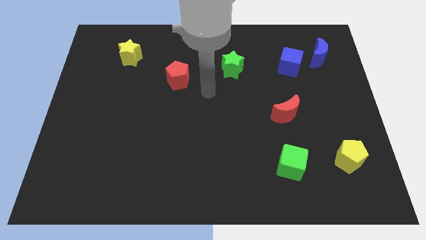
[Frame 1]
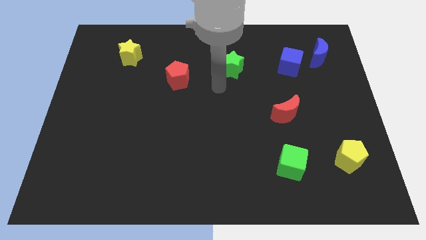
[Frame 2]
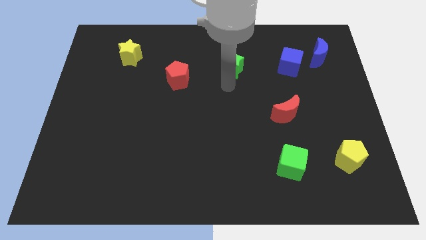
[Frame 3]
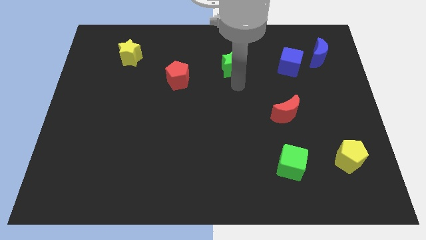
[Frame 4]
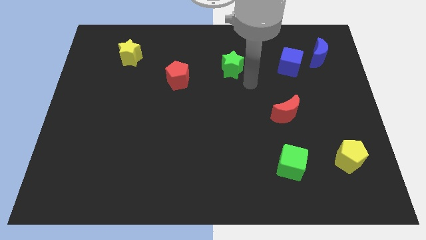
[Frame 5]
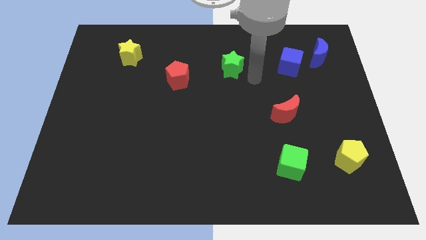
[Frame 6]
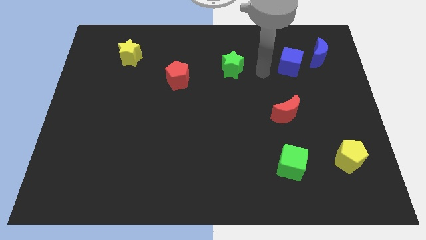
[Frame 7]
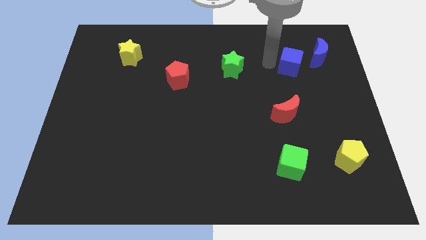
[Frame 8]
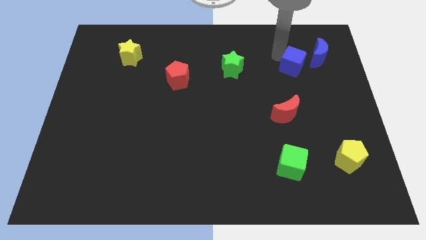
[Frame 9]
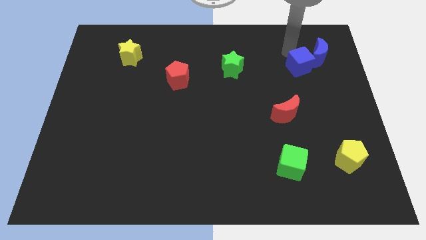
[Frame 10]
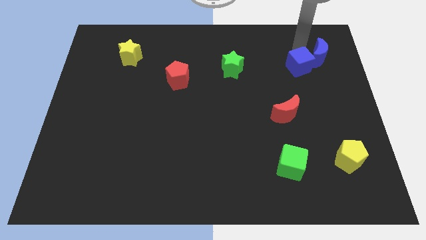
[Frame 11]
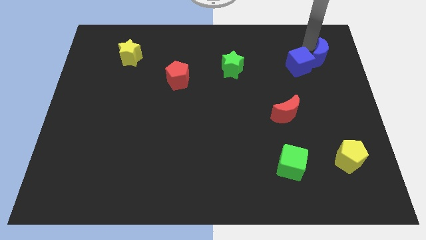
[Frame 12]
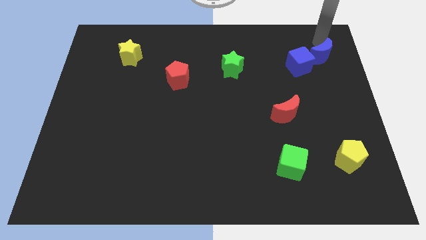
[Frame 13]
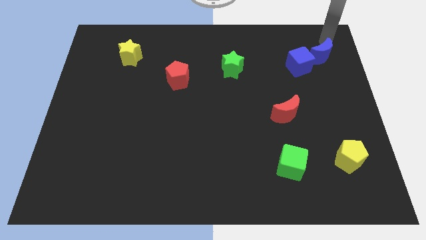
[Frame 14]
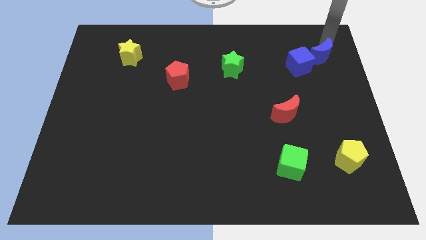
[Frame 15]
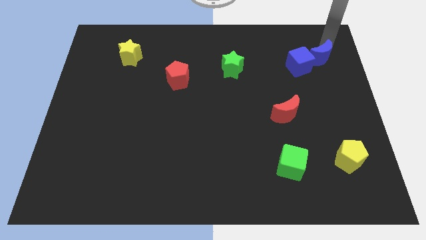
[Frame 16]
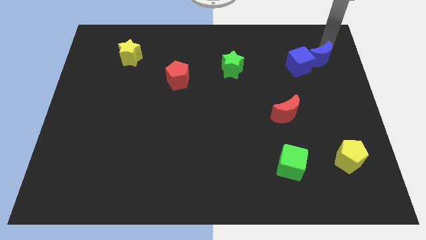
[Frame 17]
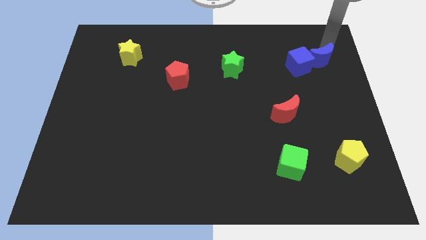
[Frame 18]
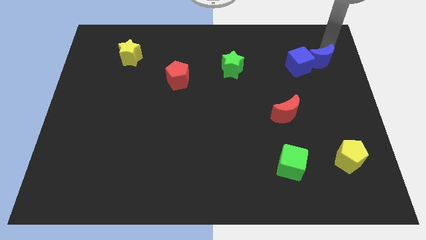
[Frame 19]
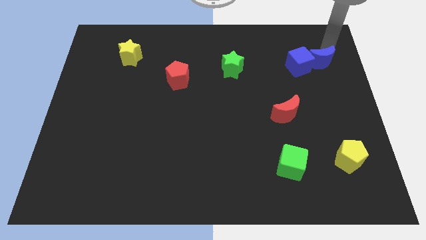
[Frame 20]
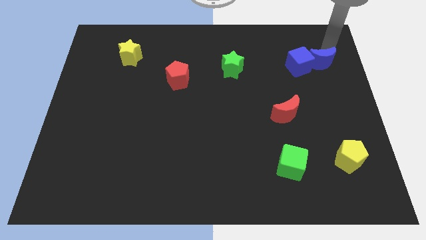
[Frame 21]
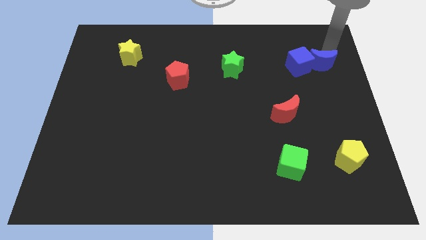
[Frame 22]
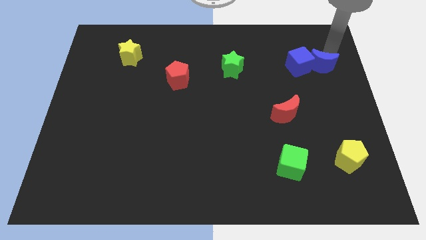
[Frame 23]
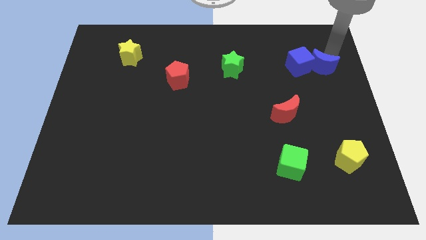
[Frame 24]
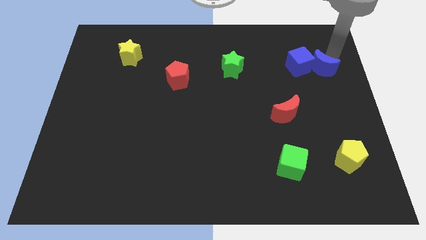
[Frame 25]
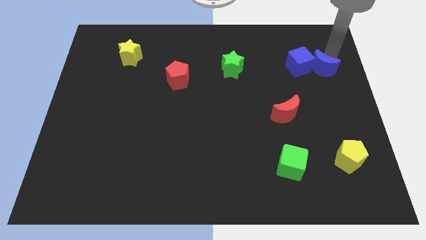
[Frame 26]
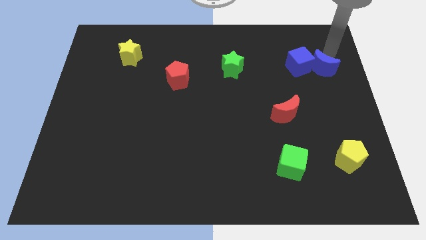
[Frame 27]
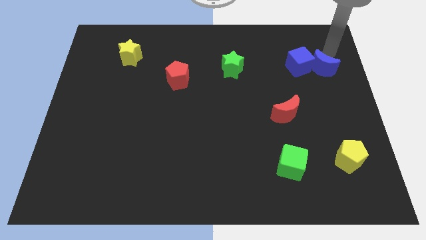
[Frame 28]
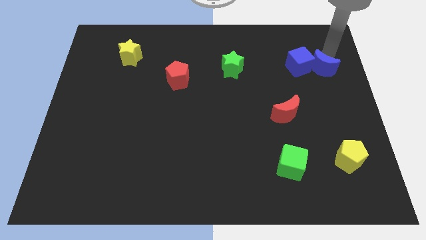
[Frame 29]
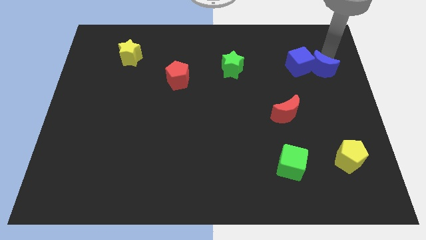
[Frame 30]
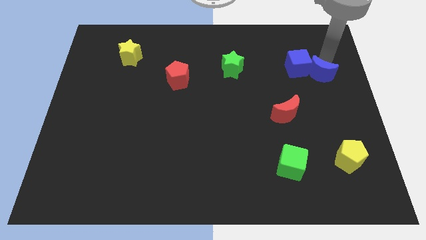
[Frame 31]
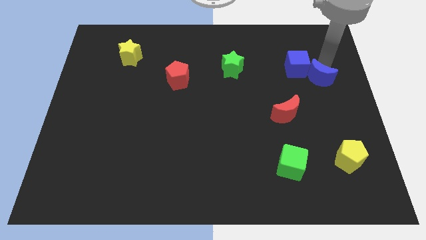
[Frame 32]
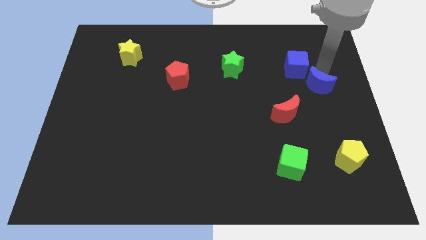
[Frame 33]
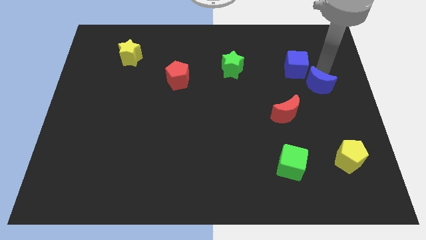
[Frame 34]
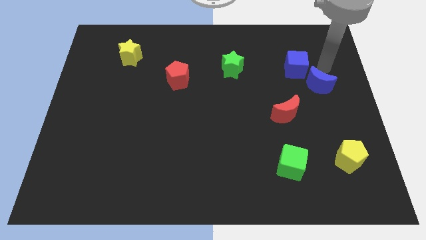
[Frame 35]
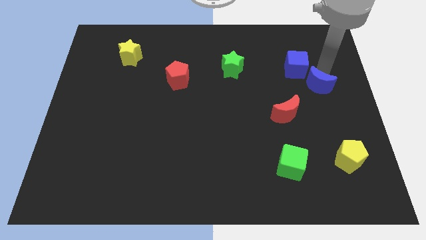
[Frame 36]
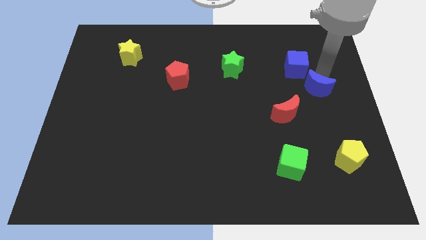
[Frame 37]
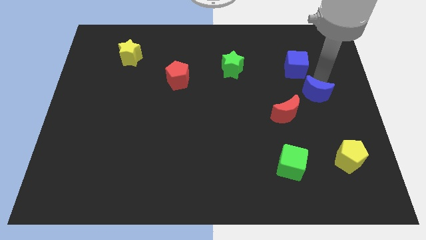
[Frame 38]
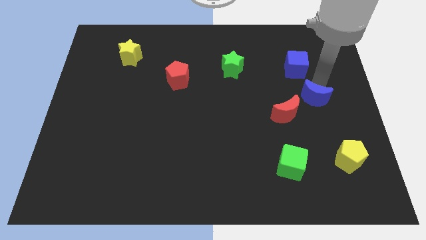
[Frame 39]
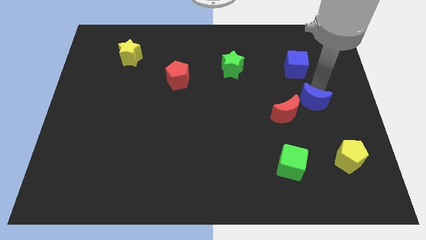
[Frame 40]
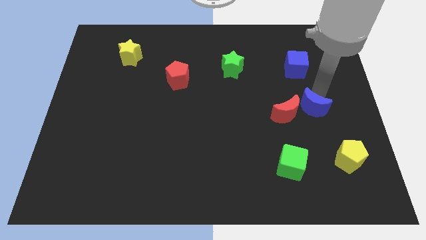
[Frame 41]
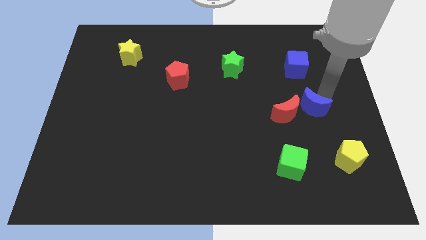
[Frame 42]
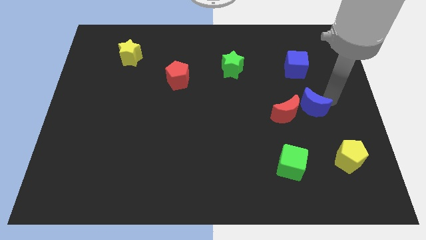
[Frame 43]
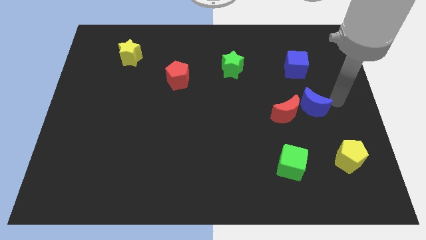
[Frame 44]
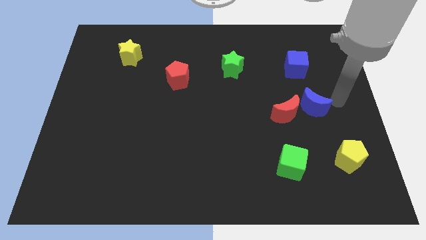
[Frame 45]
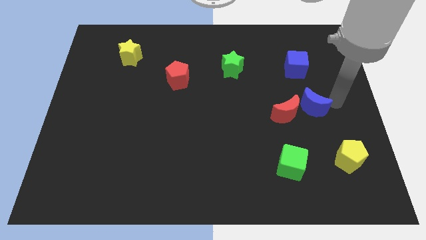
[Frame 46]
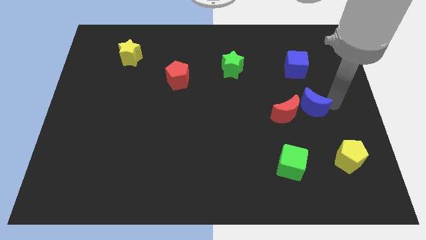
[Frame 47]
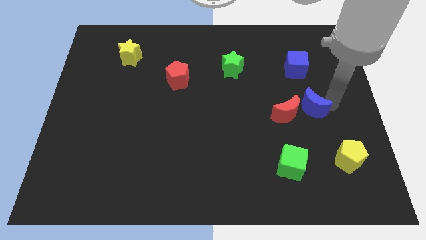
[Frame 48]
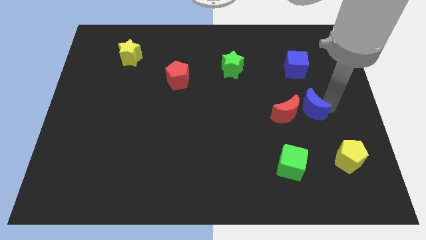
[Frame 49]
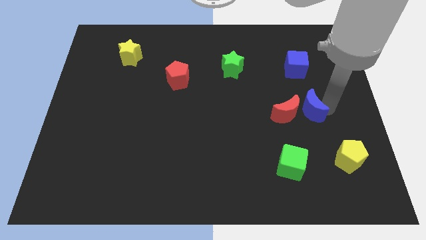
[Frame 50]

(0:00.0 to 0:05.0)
move the blue moon close to the red moon

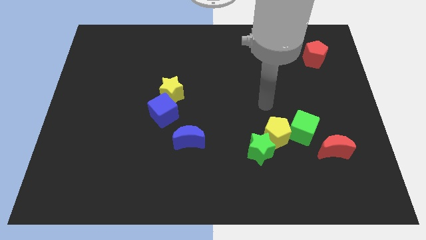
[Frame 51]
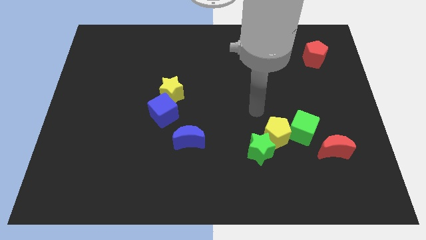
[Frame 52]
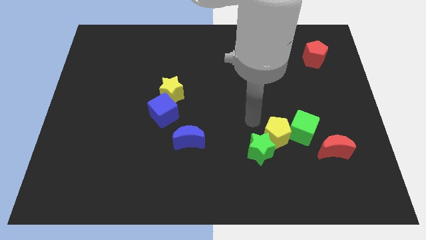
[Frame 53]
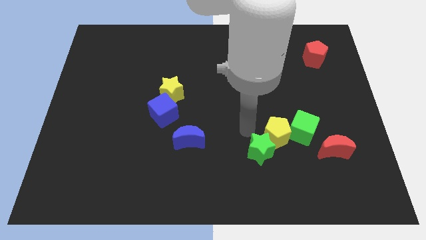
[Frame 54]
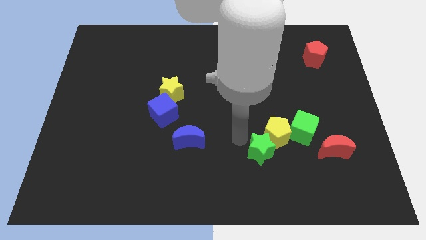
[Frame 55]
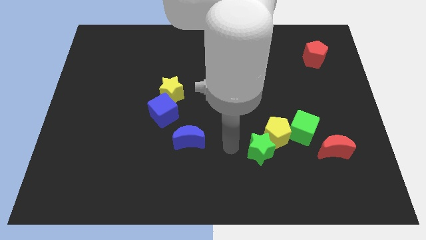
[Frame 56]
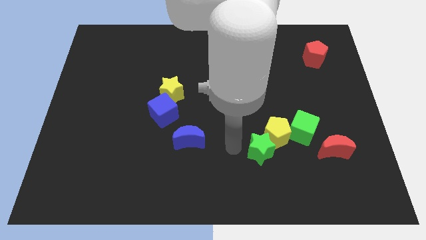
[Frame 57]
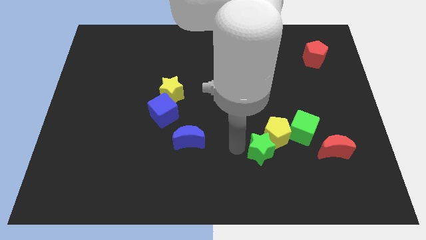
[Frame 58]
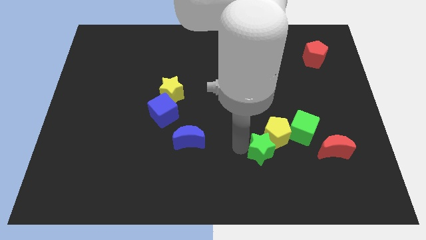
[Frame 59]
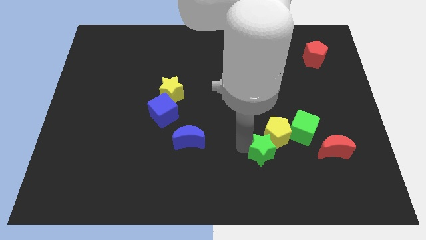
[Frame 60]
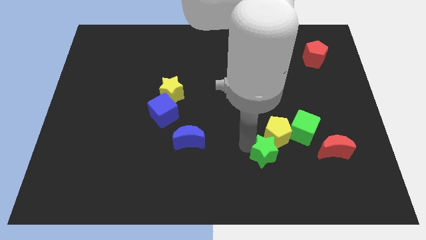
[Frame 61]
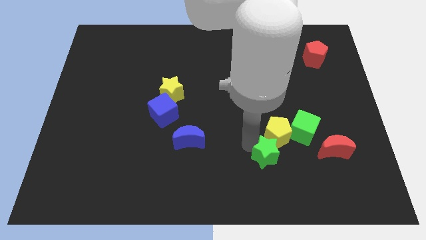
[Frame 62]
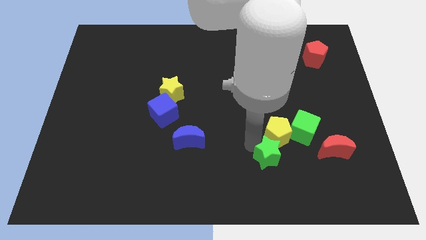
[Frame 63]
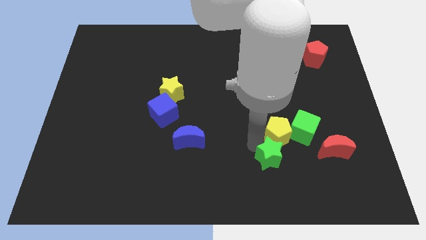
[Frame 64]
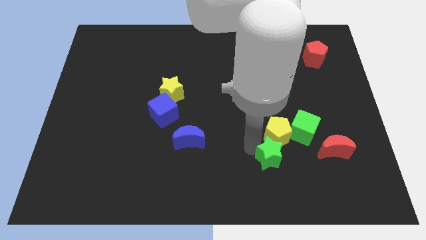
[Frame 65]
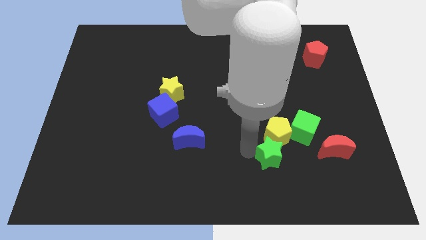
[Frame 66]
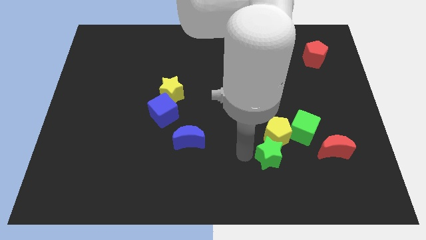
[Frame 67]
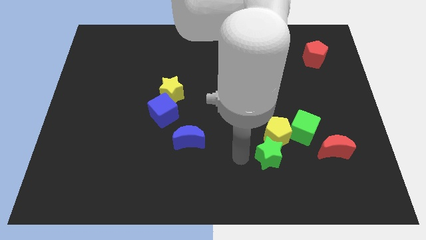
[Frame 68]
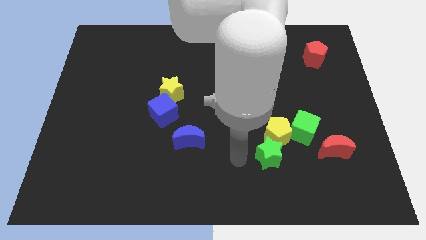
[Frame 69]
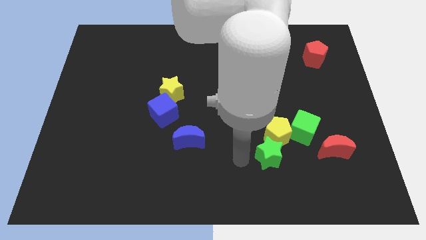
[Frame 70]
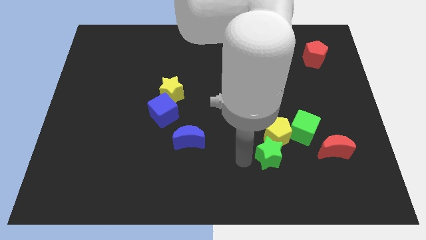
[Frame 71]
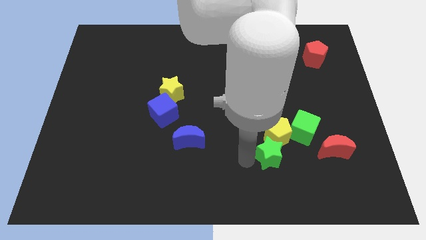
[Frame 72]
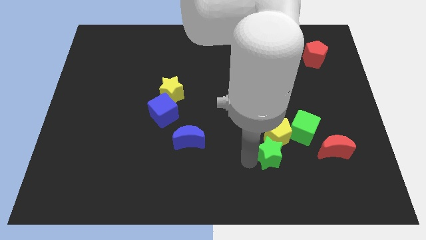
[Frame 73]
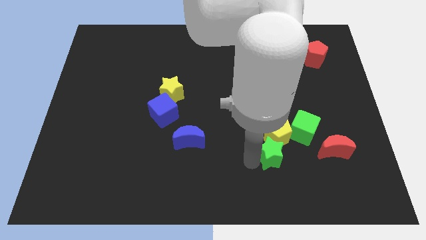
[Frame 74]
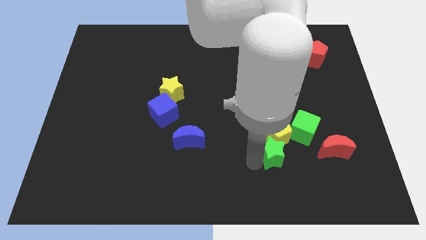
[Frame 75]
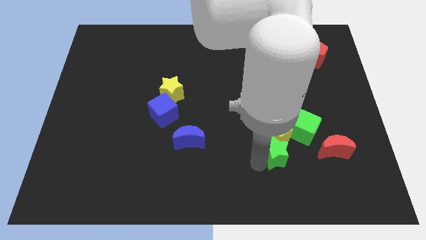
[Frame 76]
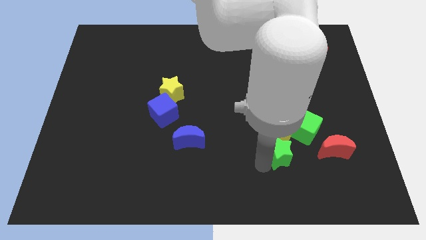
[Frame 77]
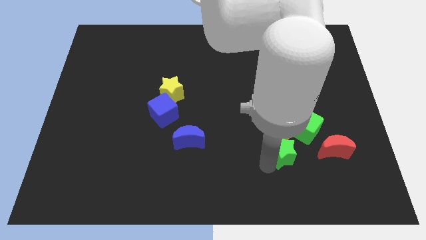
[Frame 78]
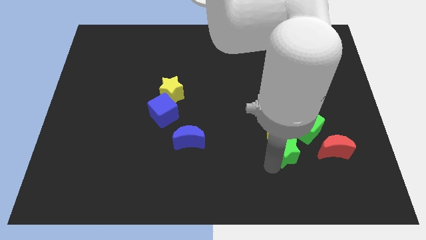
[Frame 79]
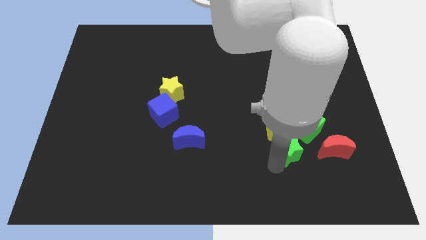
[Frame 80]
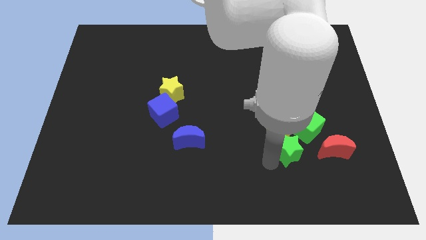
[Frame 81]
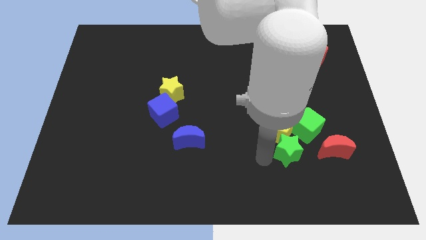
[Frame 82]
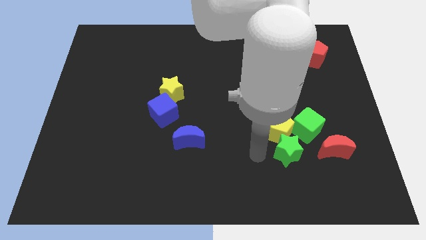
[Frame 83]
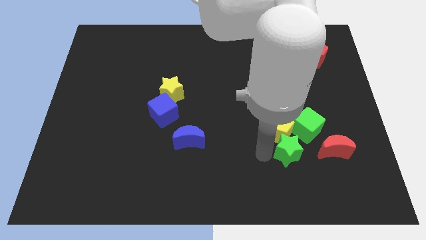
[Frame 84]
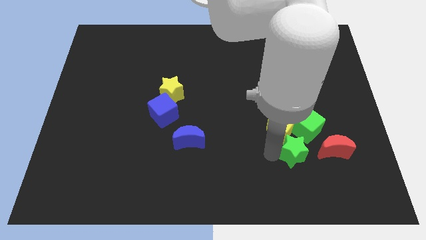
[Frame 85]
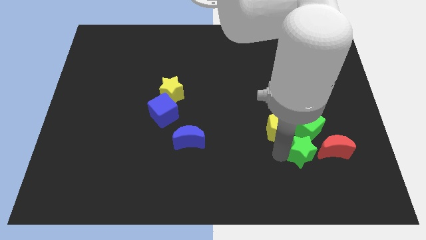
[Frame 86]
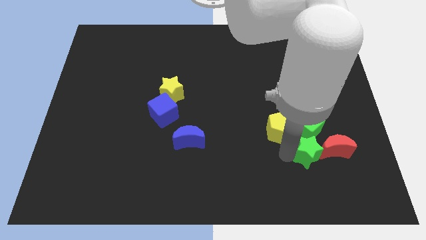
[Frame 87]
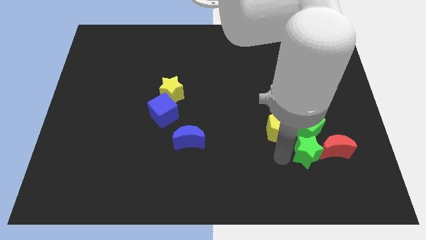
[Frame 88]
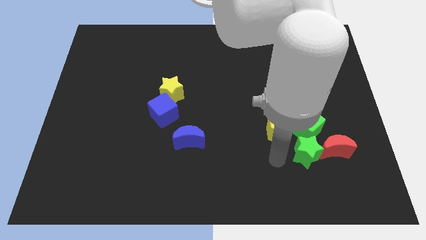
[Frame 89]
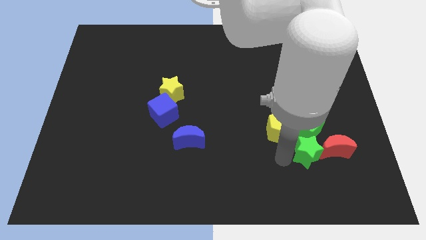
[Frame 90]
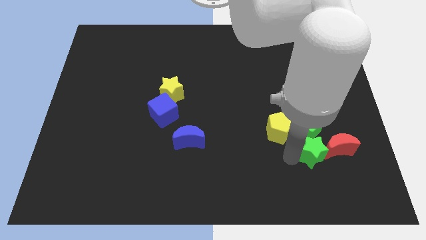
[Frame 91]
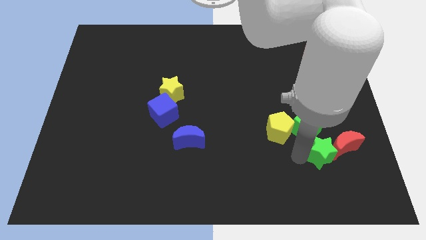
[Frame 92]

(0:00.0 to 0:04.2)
put the green star close to the red moon
